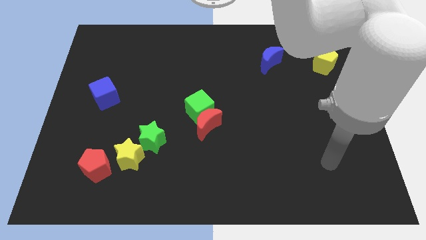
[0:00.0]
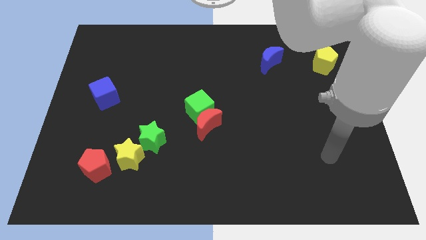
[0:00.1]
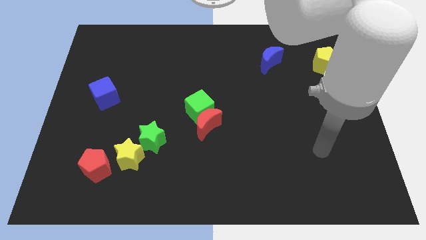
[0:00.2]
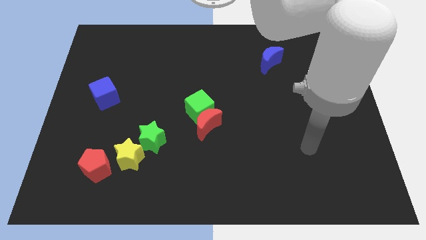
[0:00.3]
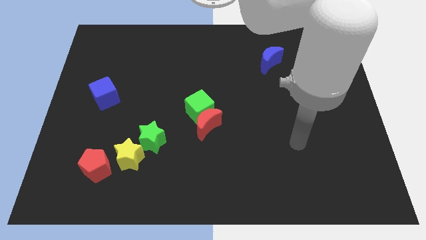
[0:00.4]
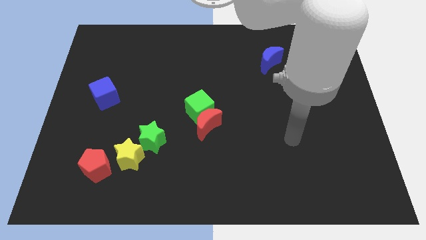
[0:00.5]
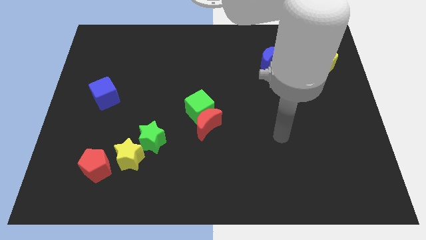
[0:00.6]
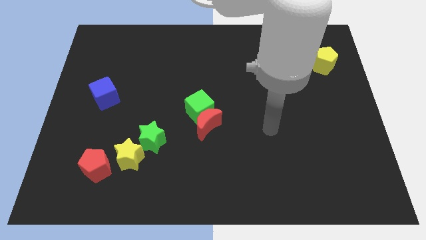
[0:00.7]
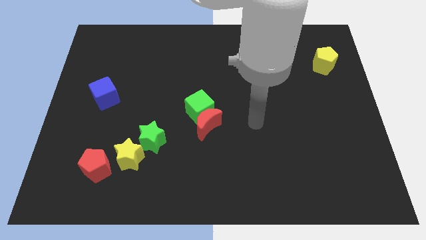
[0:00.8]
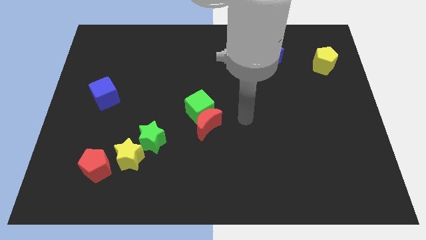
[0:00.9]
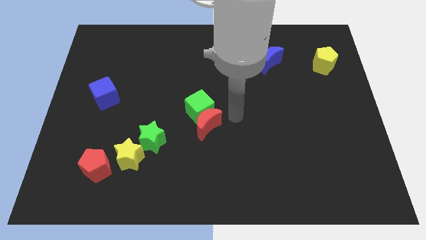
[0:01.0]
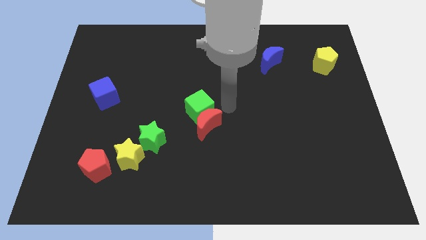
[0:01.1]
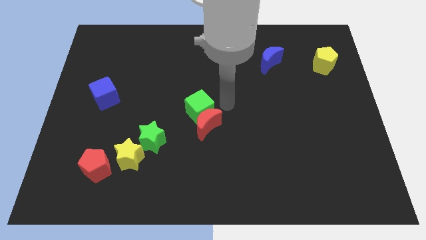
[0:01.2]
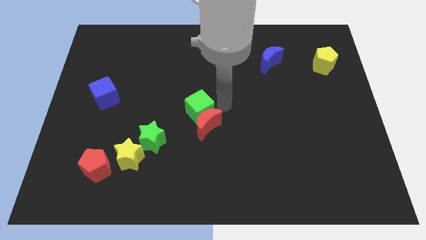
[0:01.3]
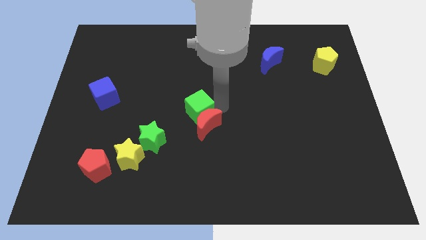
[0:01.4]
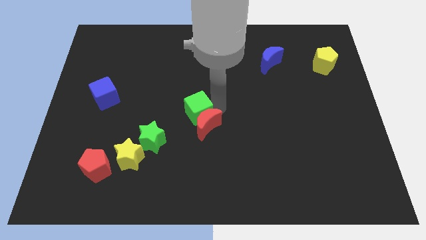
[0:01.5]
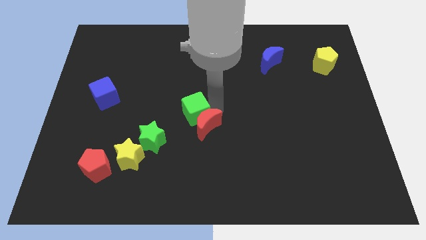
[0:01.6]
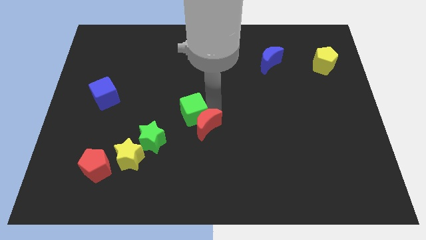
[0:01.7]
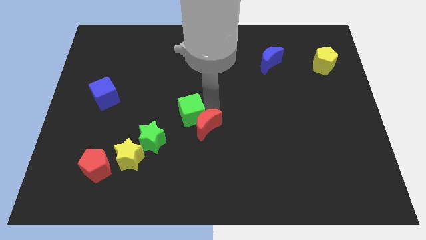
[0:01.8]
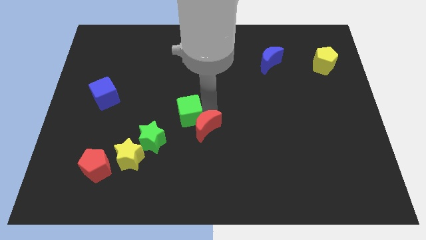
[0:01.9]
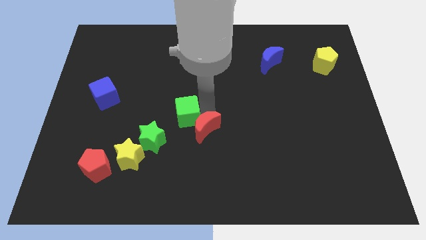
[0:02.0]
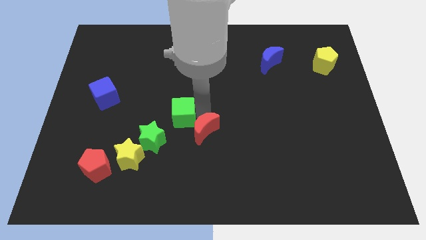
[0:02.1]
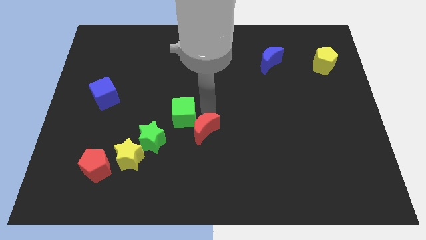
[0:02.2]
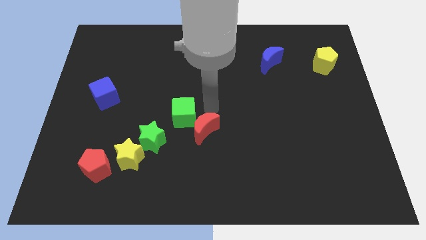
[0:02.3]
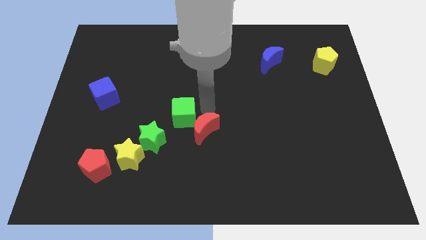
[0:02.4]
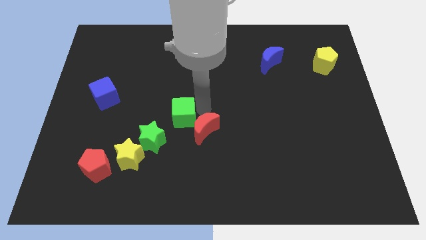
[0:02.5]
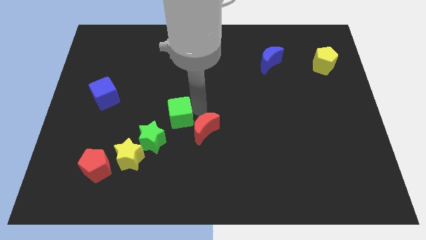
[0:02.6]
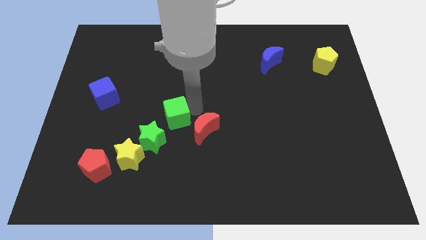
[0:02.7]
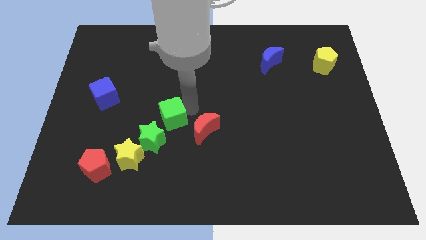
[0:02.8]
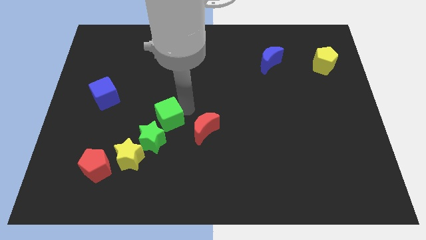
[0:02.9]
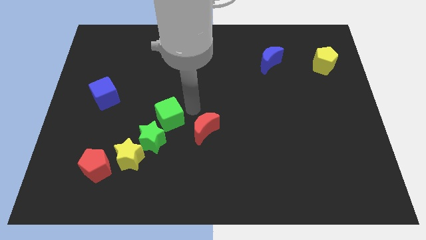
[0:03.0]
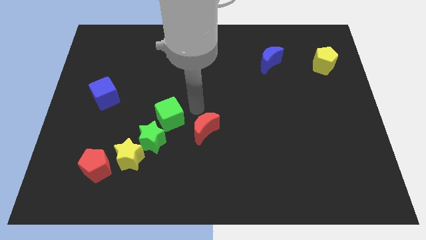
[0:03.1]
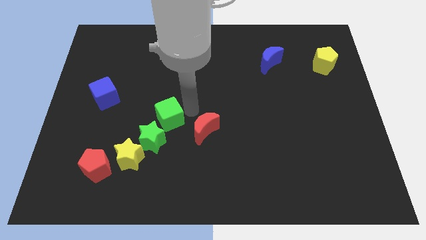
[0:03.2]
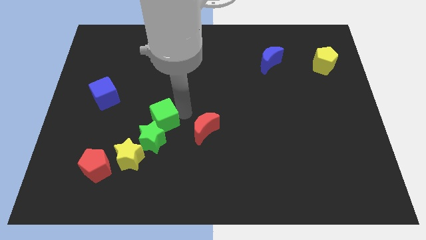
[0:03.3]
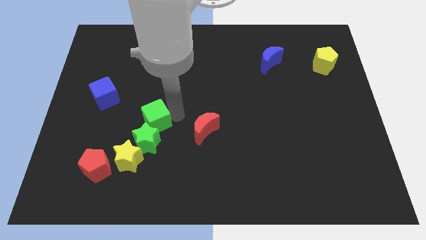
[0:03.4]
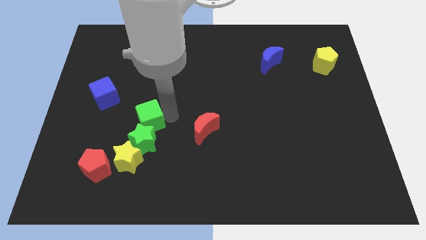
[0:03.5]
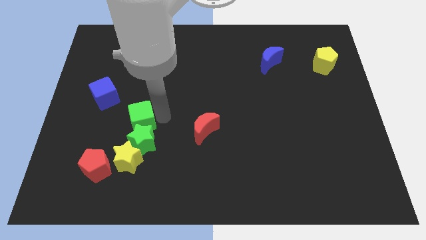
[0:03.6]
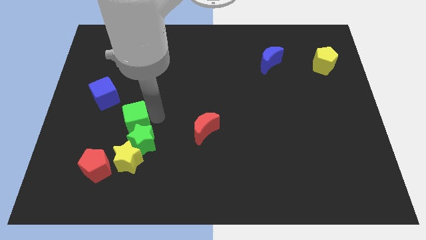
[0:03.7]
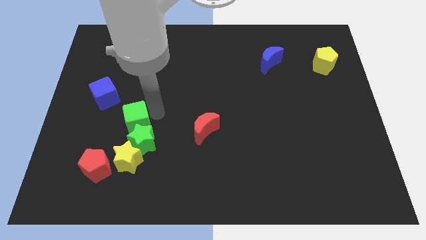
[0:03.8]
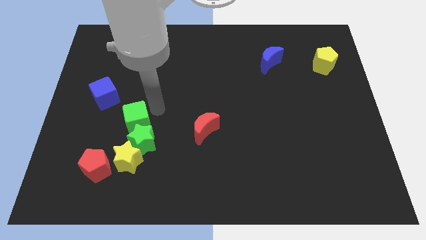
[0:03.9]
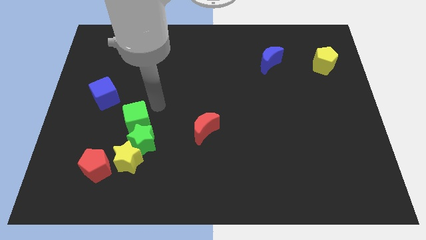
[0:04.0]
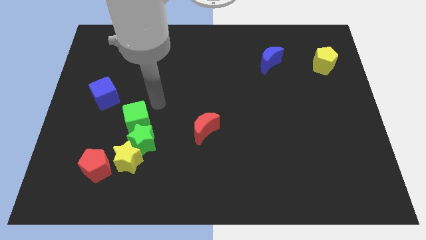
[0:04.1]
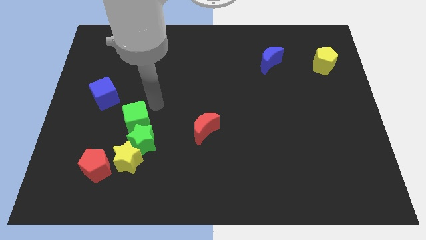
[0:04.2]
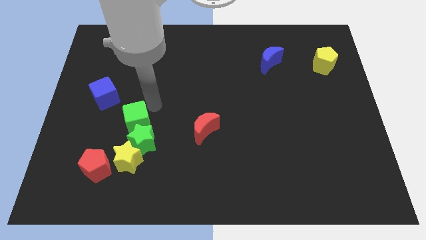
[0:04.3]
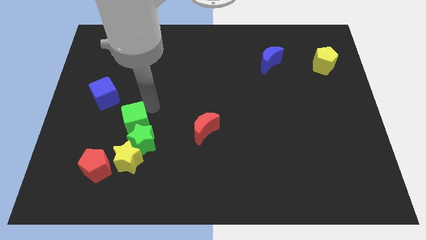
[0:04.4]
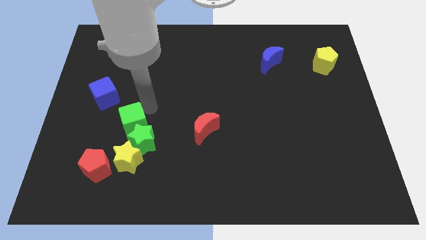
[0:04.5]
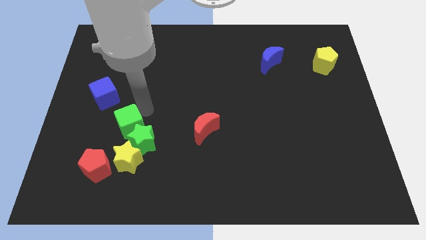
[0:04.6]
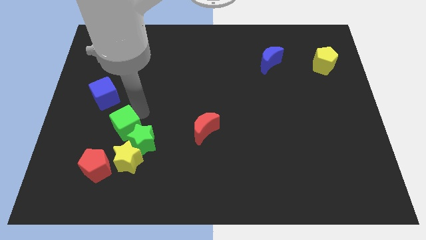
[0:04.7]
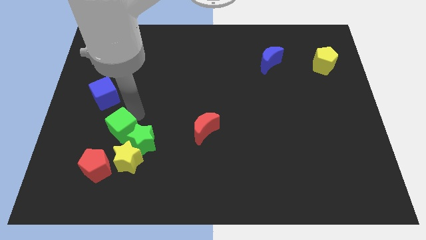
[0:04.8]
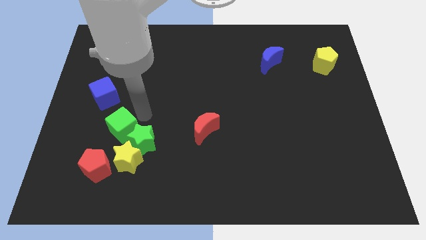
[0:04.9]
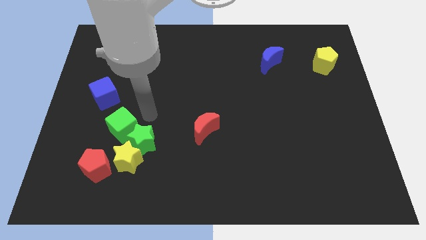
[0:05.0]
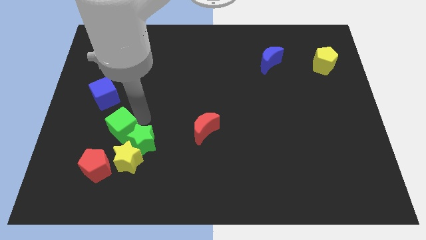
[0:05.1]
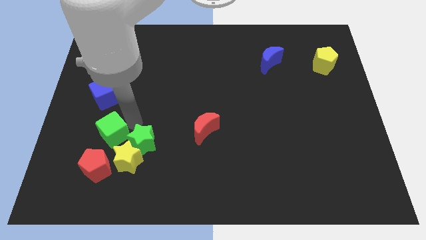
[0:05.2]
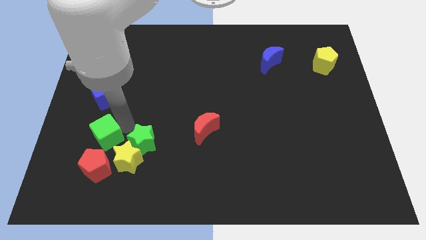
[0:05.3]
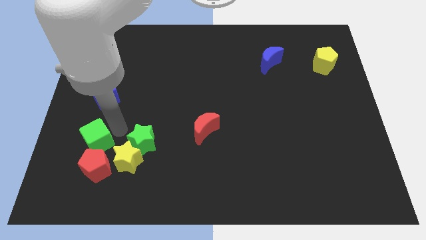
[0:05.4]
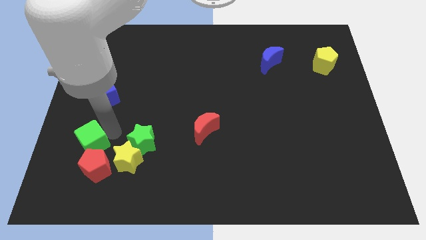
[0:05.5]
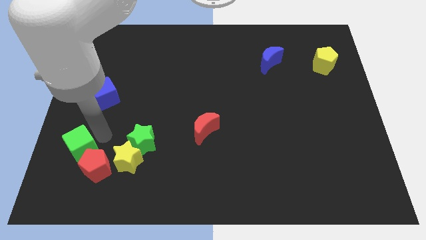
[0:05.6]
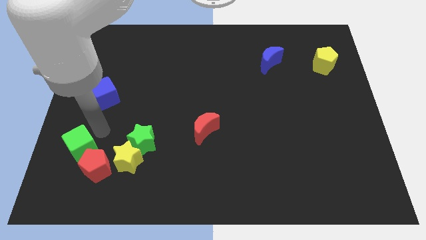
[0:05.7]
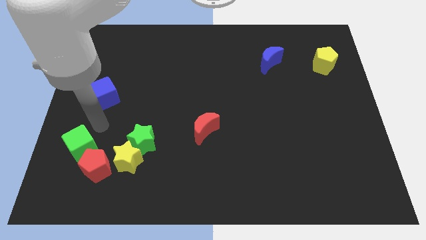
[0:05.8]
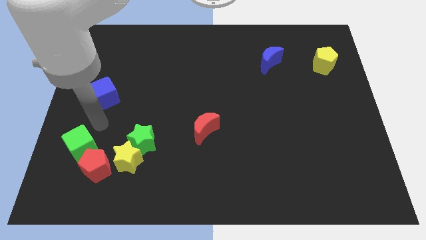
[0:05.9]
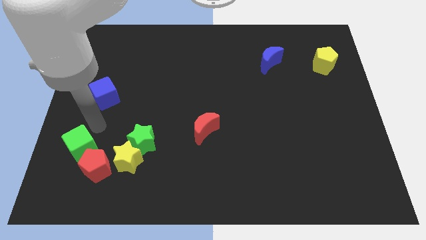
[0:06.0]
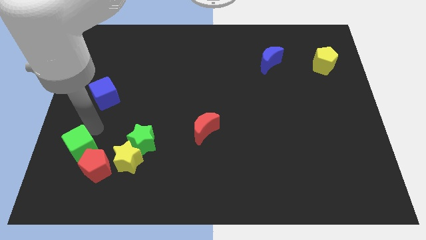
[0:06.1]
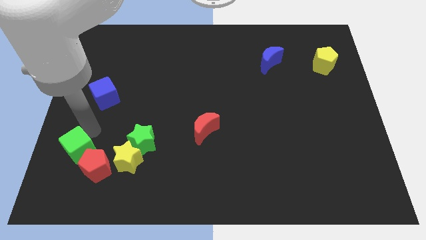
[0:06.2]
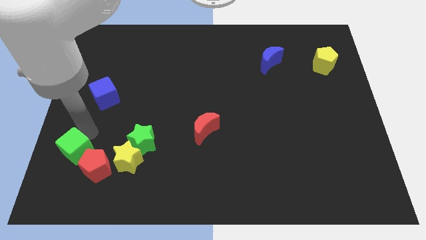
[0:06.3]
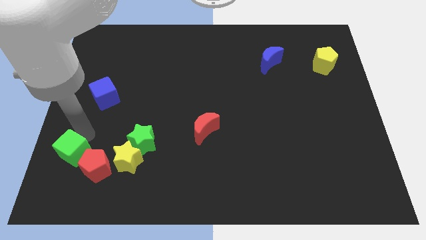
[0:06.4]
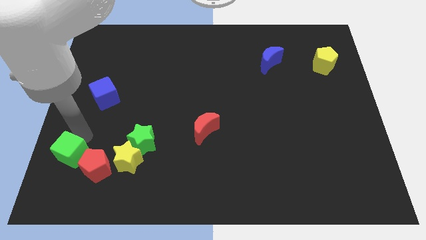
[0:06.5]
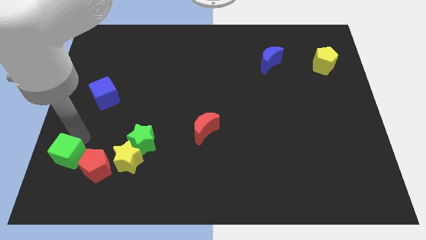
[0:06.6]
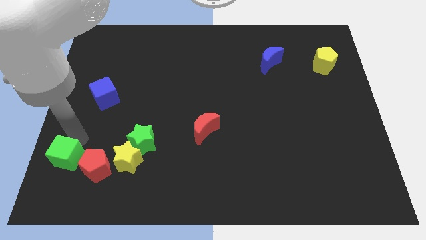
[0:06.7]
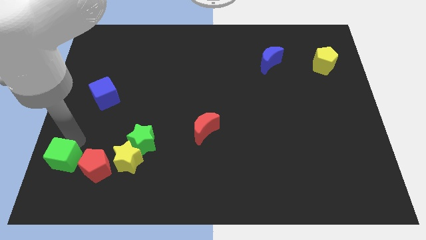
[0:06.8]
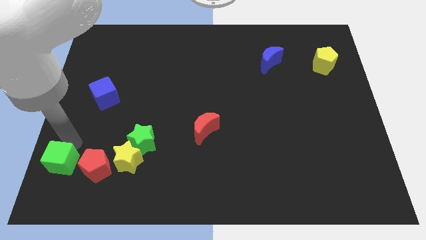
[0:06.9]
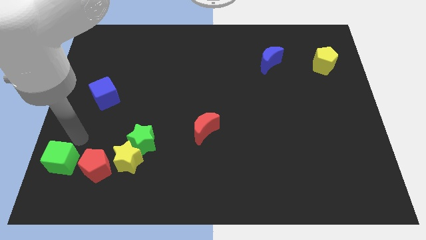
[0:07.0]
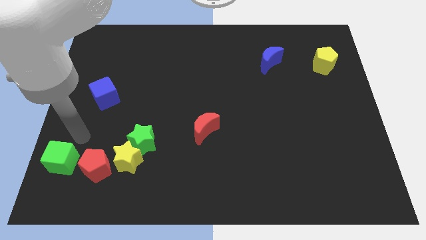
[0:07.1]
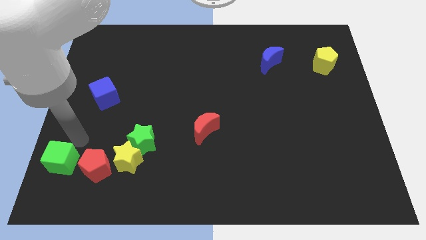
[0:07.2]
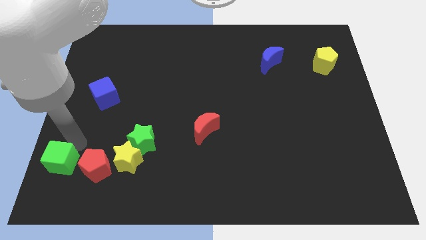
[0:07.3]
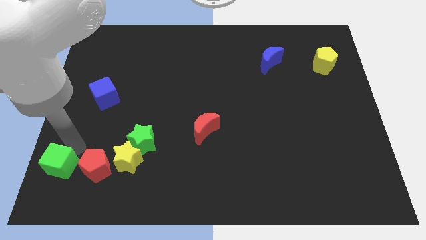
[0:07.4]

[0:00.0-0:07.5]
push the green cube to the lower left corner

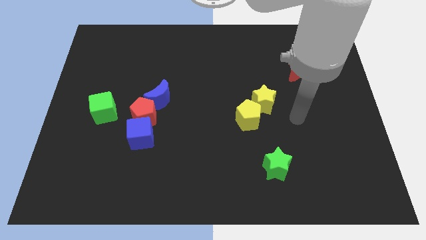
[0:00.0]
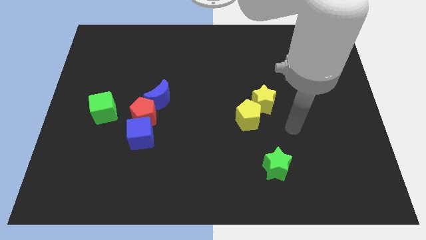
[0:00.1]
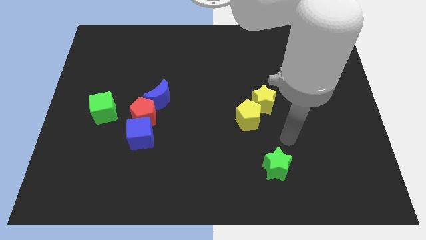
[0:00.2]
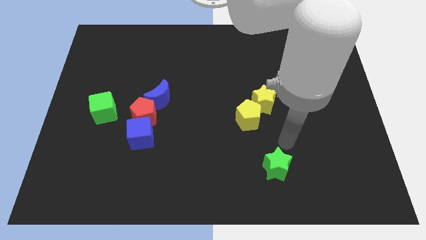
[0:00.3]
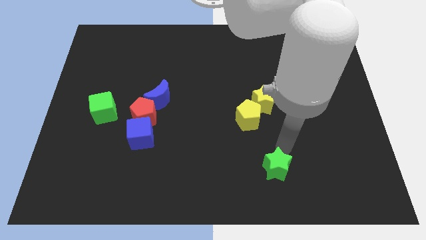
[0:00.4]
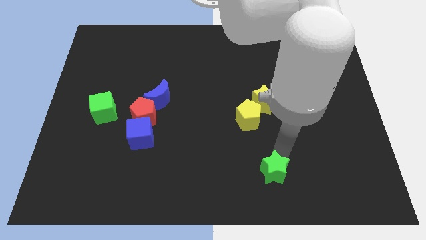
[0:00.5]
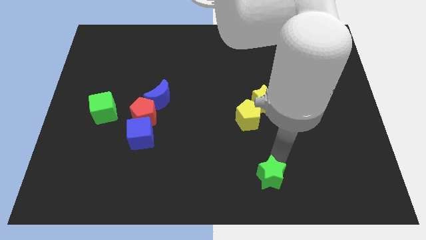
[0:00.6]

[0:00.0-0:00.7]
move the green star to the bottom
